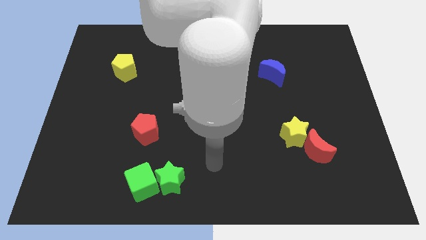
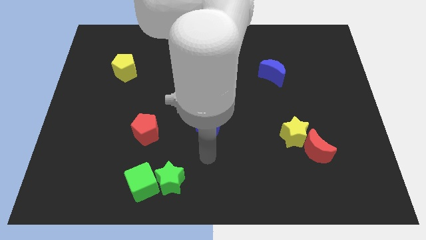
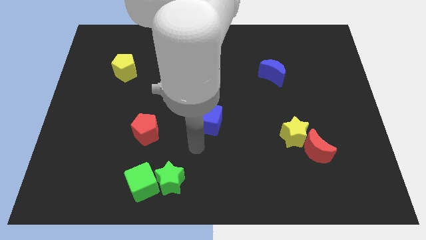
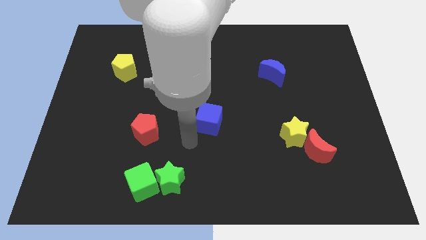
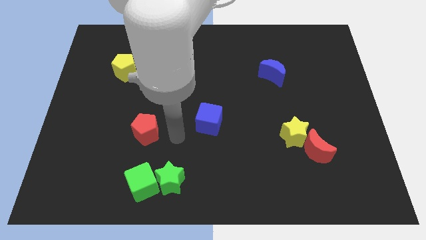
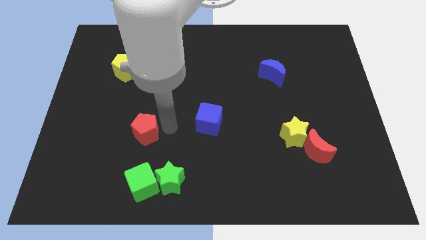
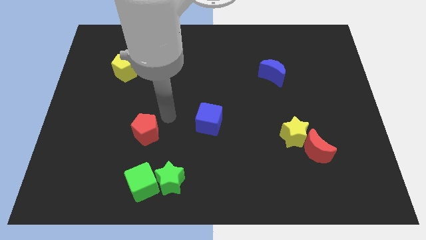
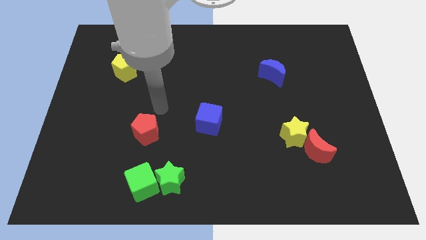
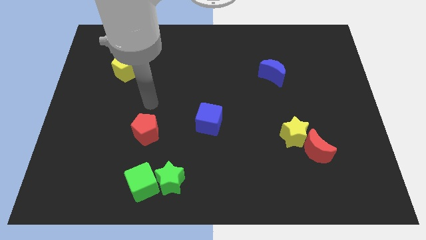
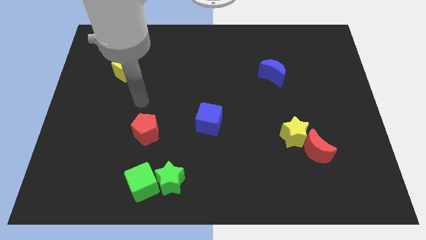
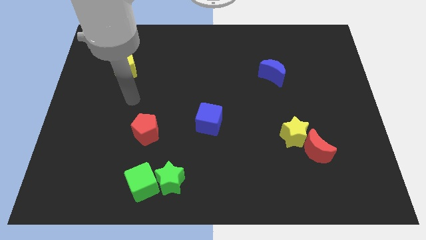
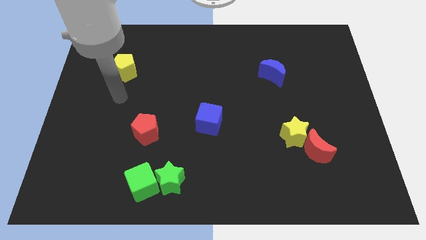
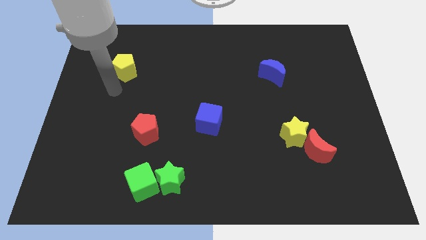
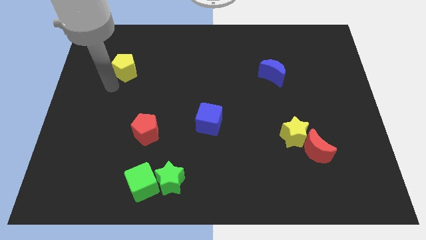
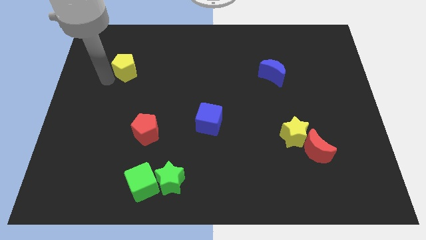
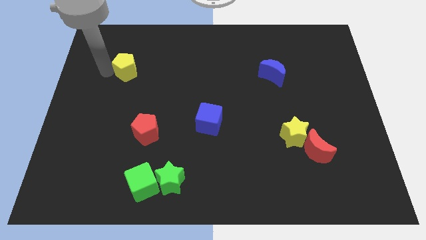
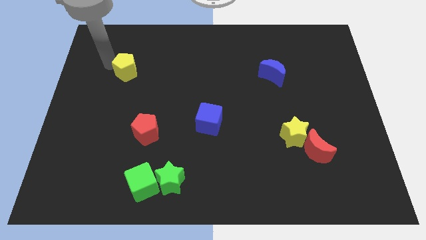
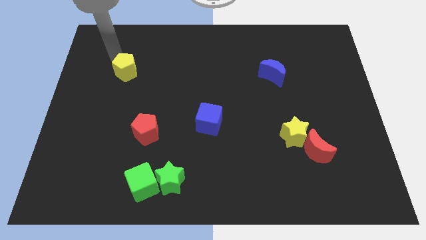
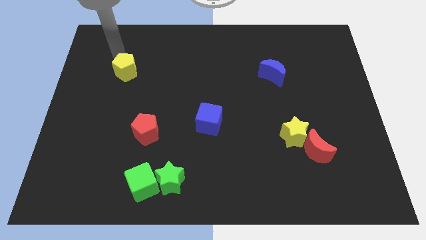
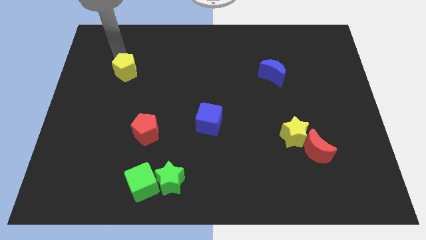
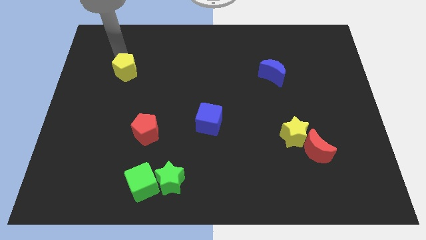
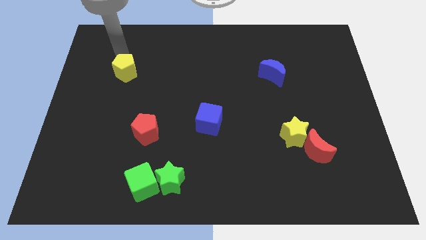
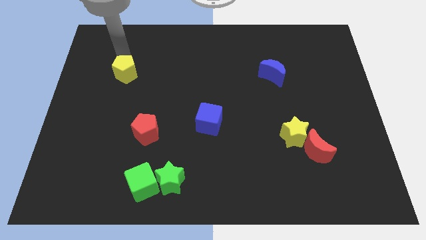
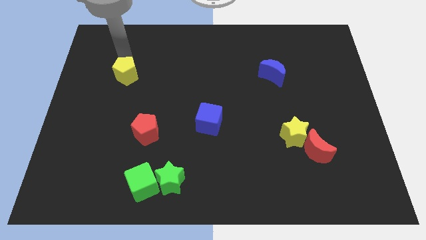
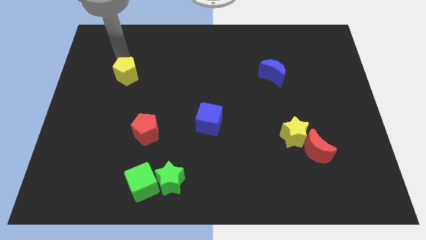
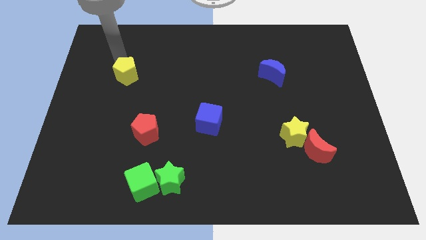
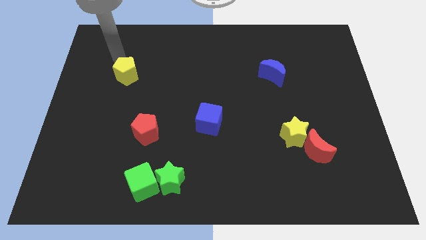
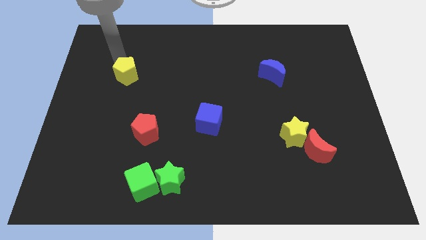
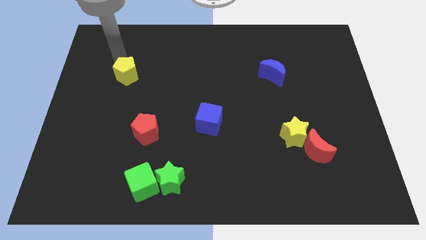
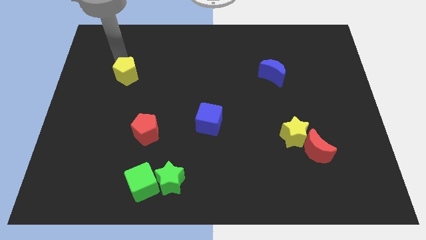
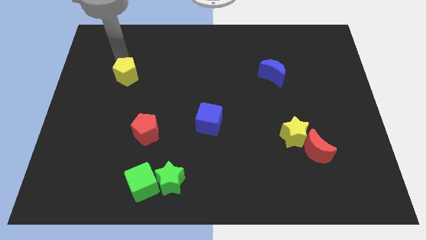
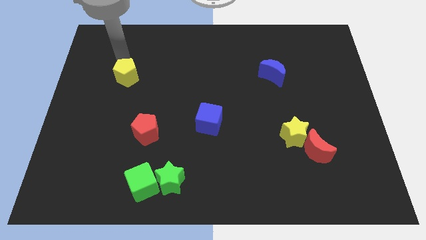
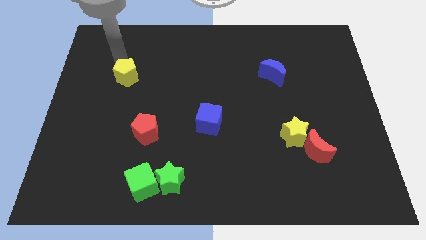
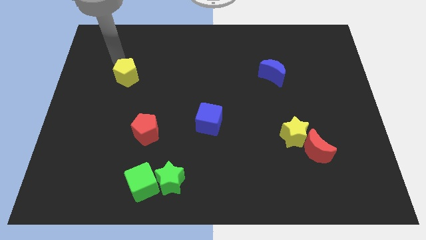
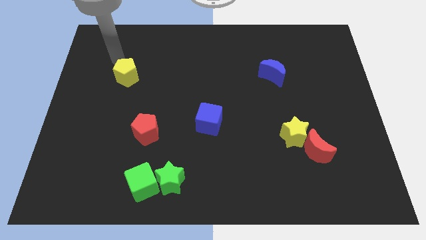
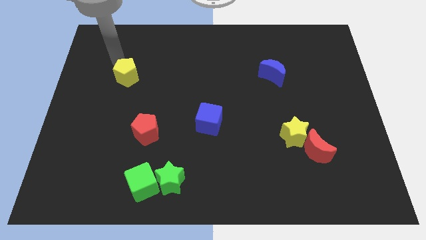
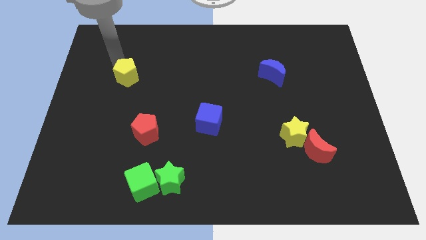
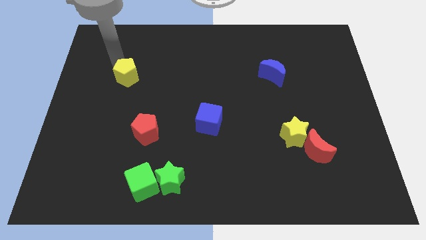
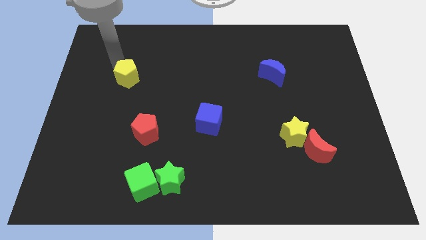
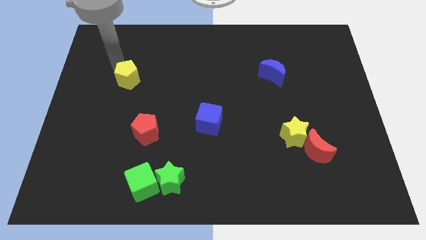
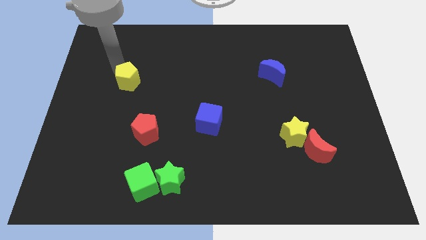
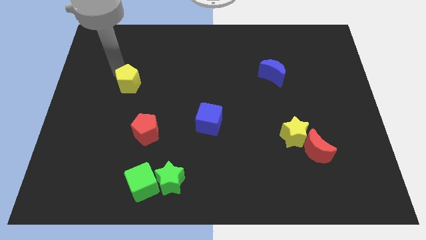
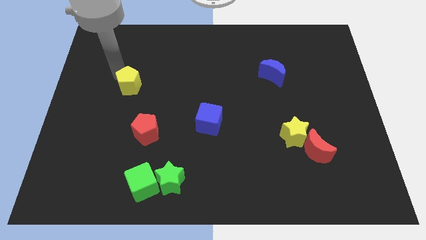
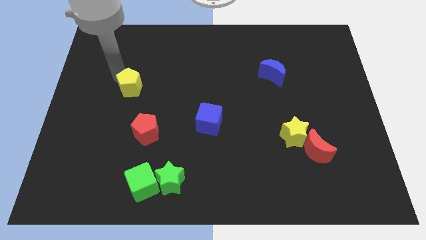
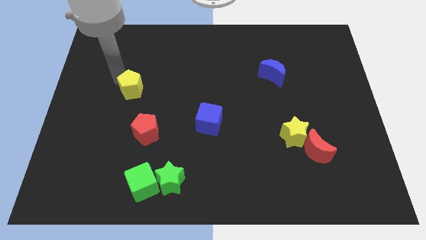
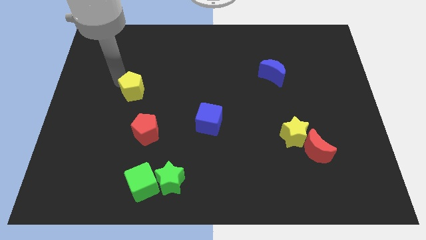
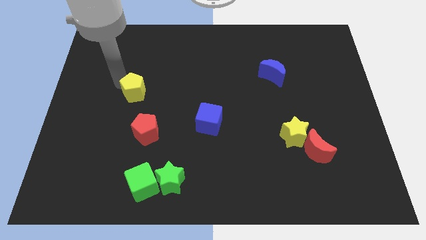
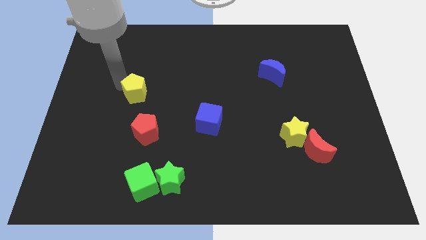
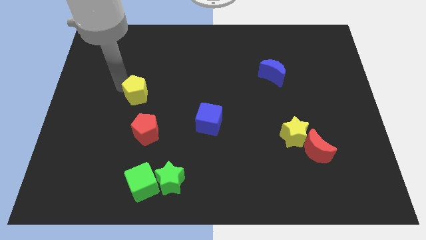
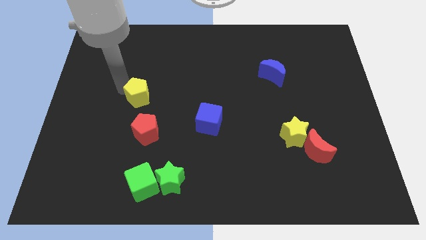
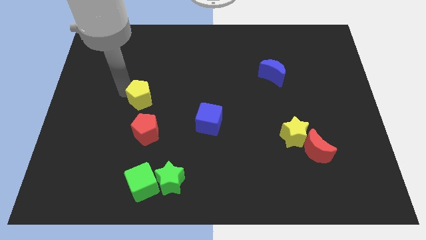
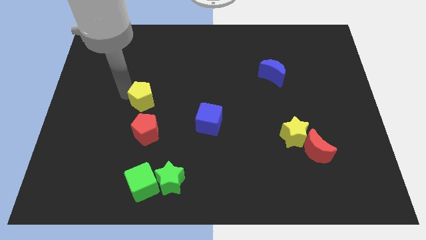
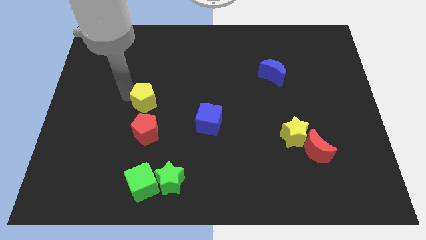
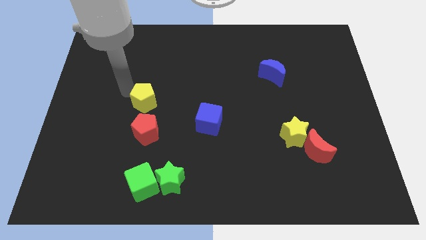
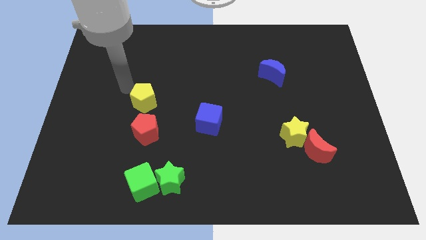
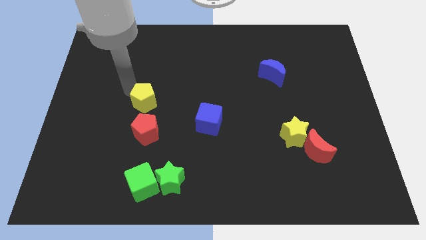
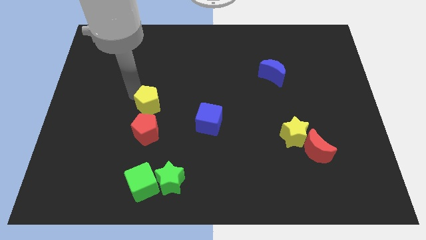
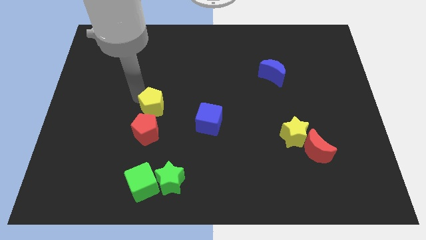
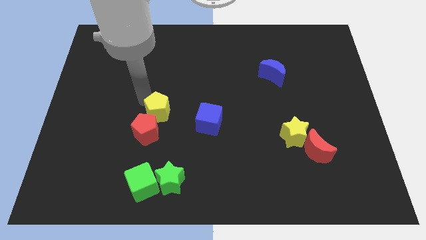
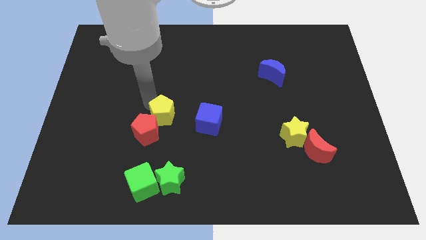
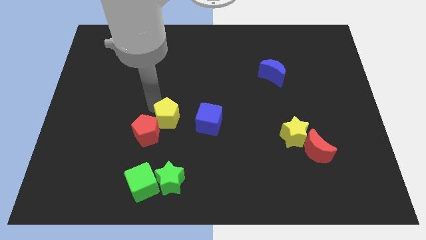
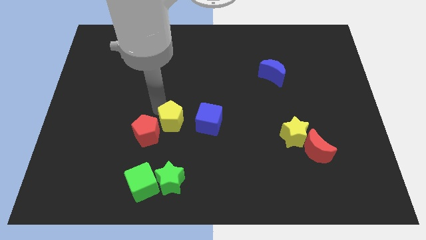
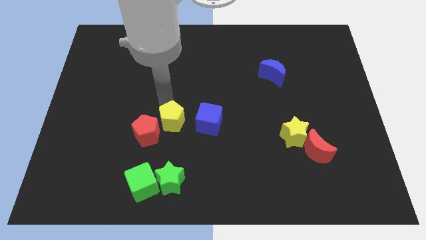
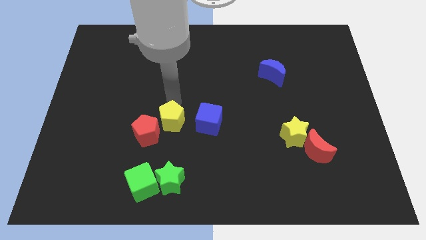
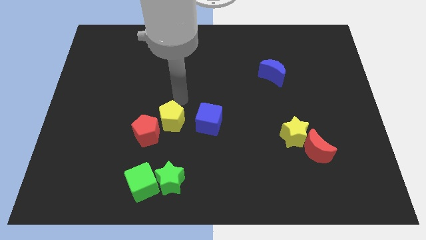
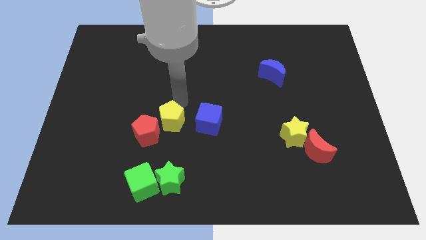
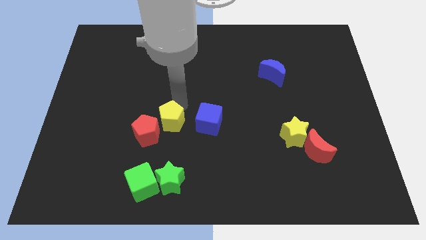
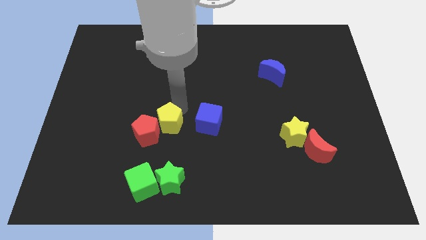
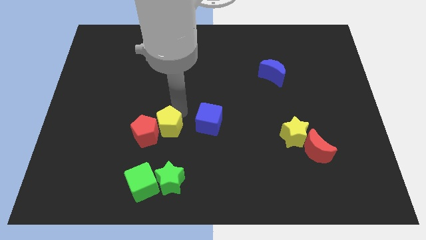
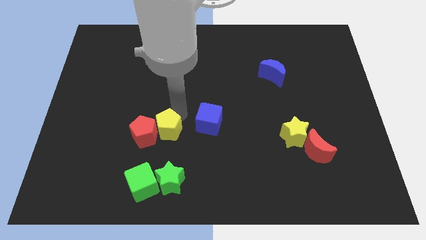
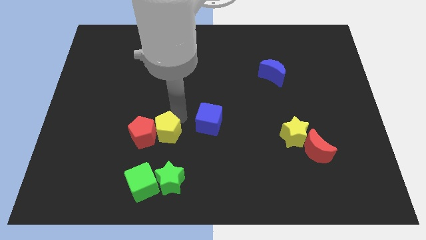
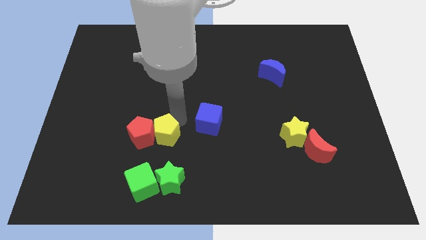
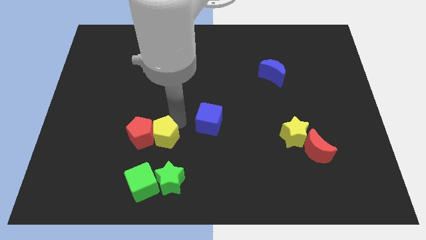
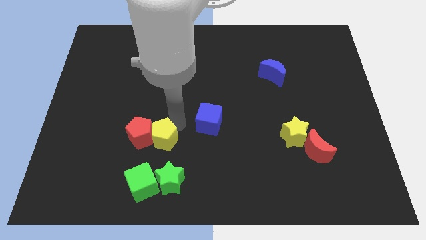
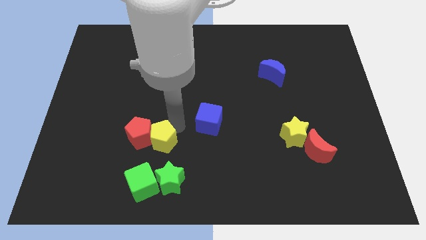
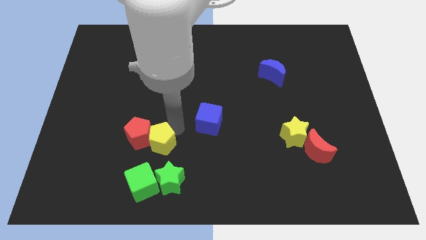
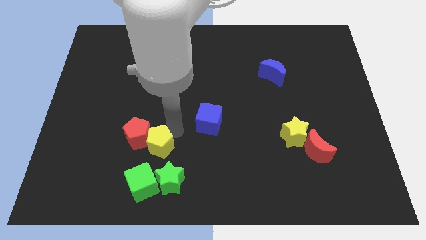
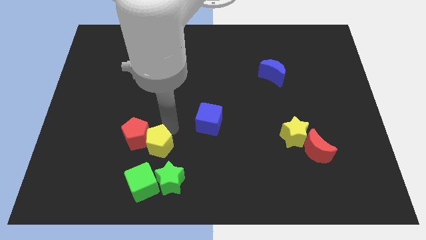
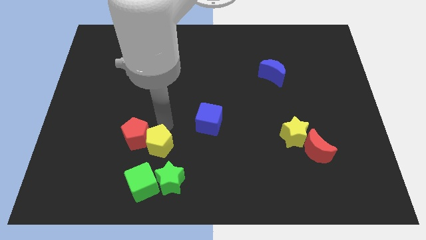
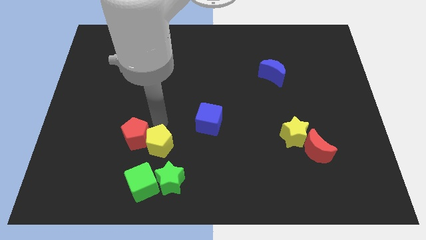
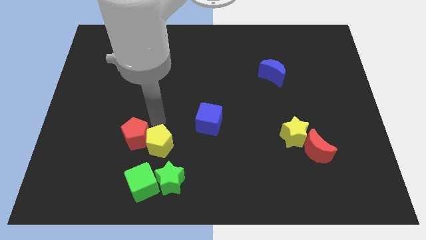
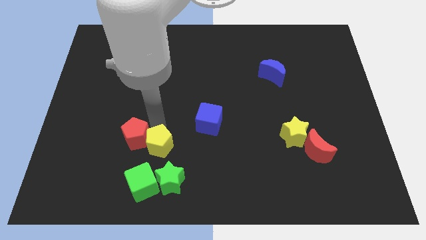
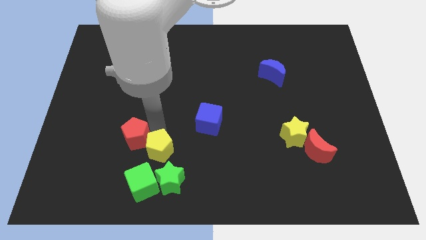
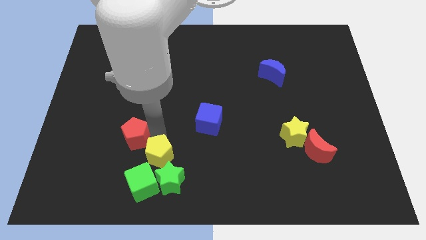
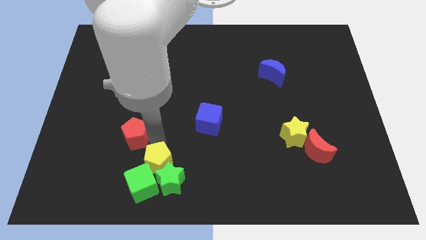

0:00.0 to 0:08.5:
move the yellow pentagon close to the green star
